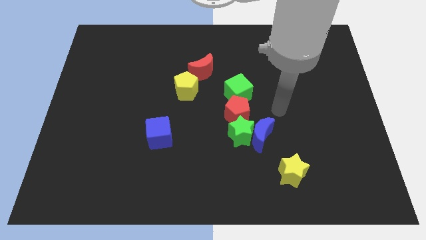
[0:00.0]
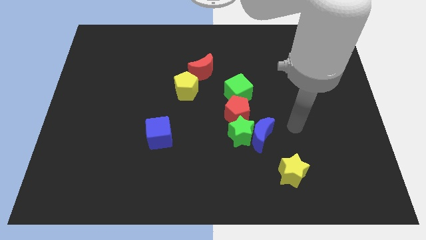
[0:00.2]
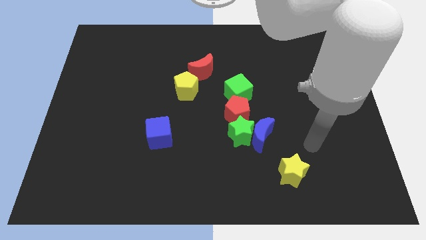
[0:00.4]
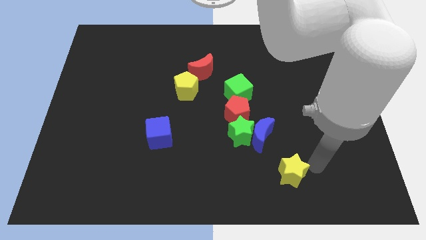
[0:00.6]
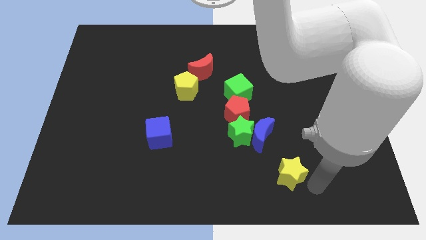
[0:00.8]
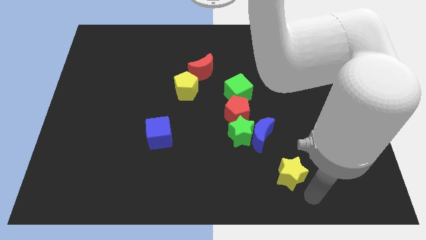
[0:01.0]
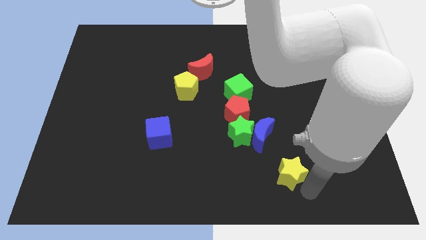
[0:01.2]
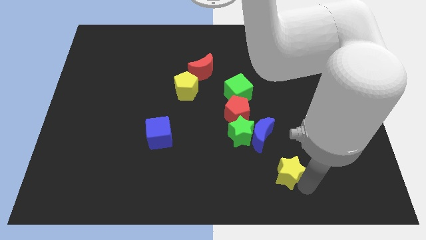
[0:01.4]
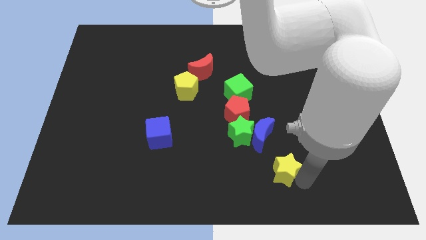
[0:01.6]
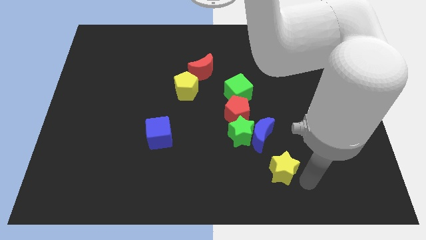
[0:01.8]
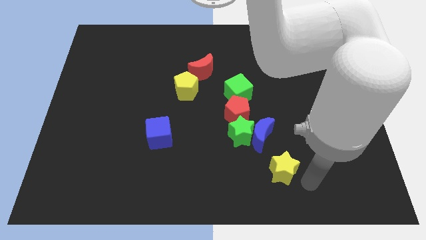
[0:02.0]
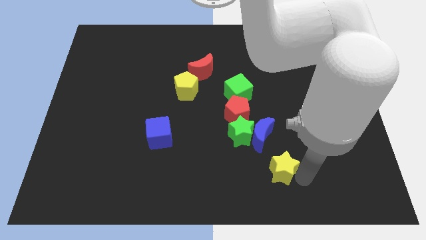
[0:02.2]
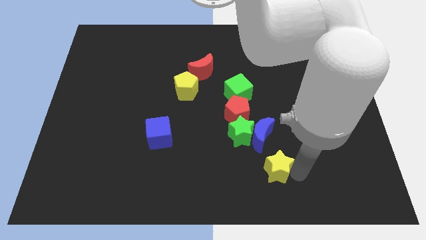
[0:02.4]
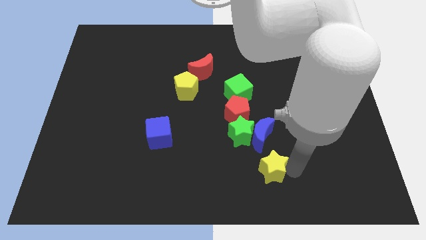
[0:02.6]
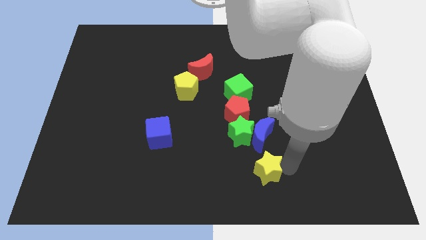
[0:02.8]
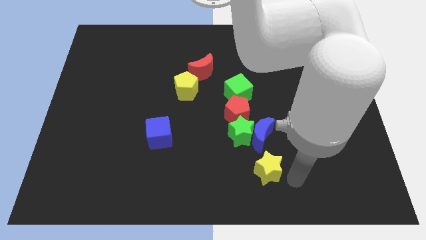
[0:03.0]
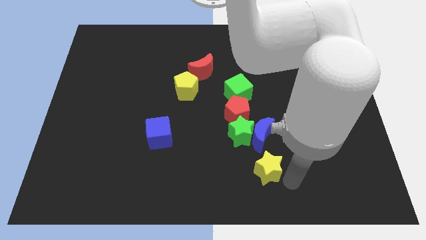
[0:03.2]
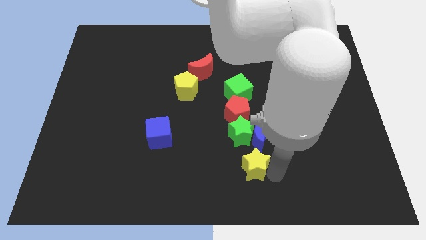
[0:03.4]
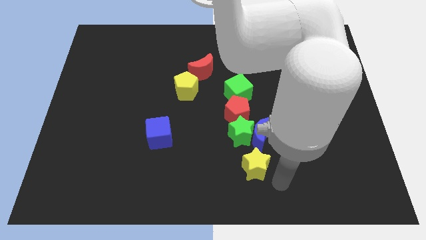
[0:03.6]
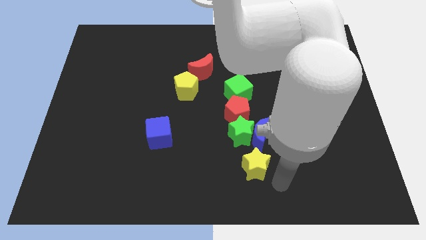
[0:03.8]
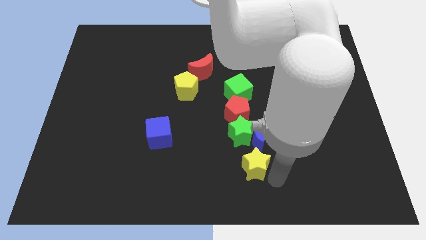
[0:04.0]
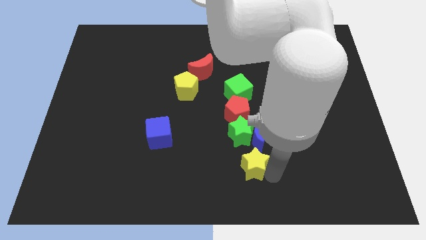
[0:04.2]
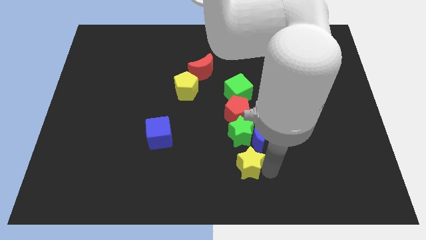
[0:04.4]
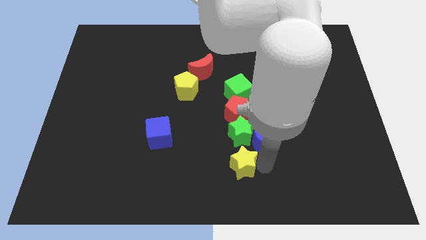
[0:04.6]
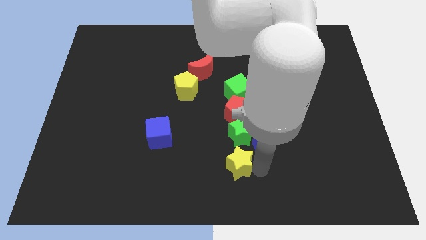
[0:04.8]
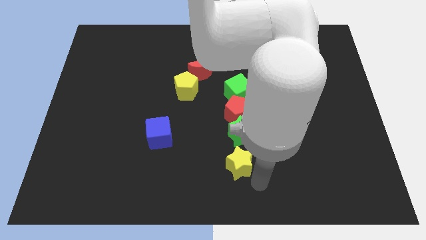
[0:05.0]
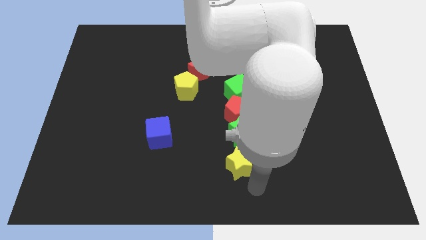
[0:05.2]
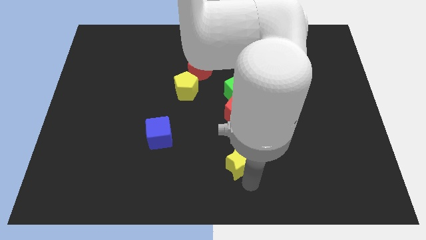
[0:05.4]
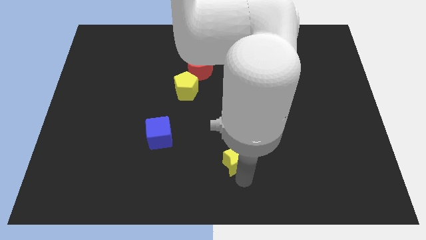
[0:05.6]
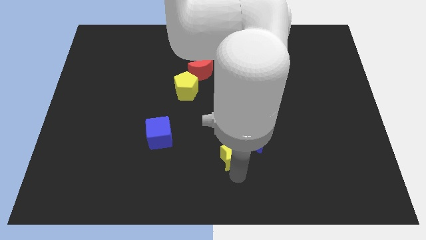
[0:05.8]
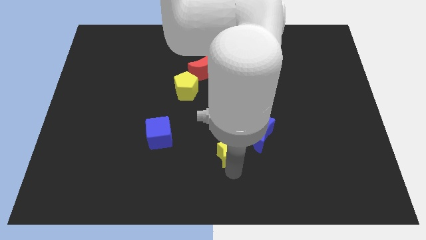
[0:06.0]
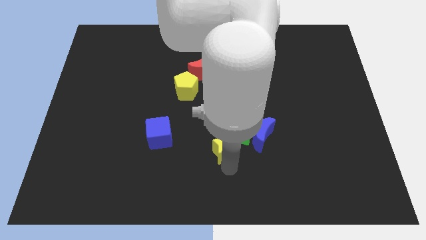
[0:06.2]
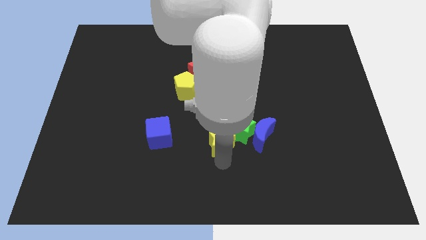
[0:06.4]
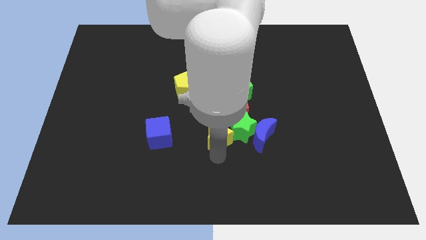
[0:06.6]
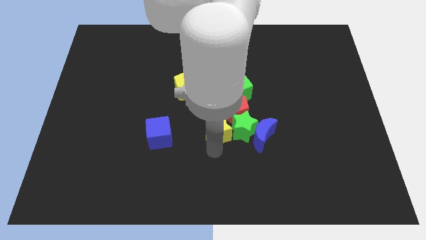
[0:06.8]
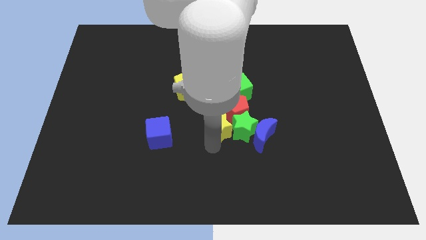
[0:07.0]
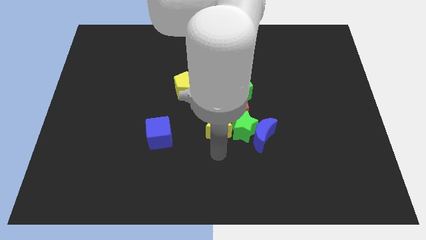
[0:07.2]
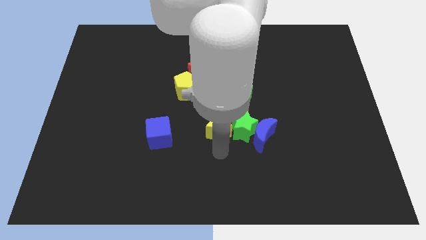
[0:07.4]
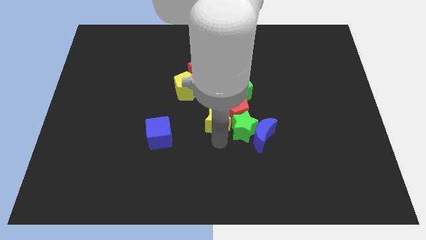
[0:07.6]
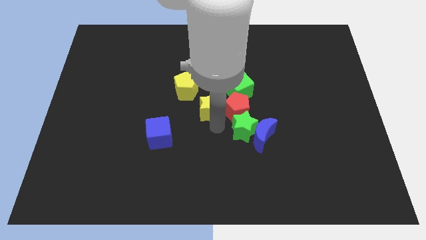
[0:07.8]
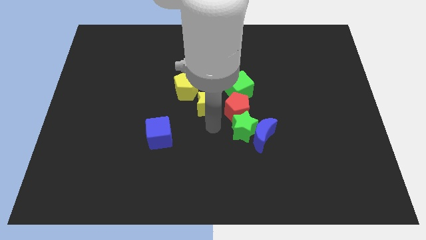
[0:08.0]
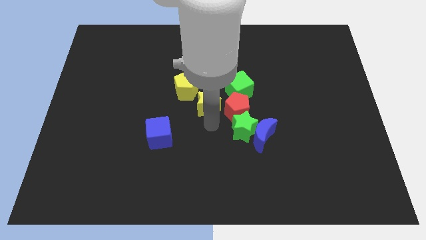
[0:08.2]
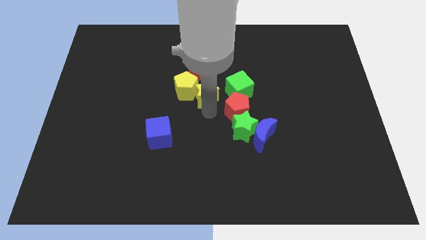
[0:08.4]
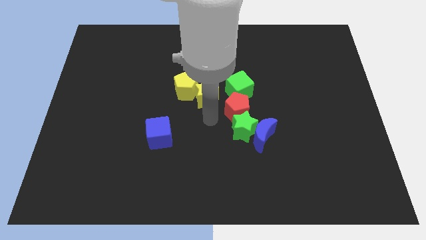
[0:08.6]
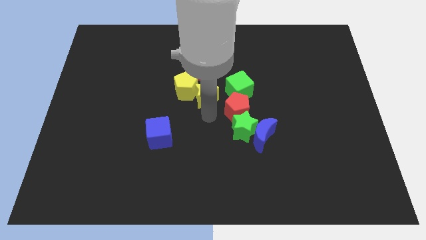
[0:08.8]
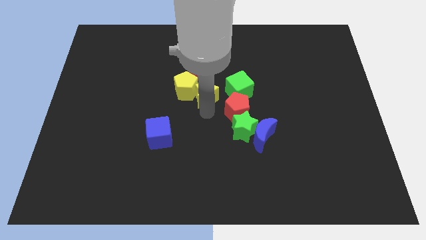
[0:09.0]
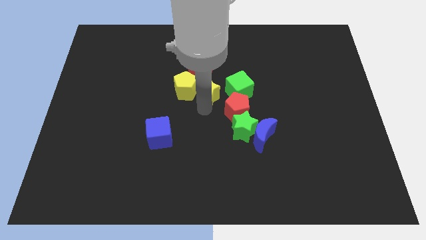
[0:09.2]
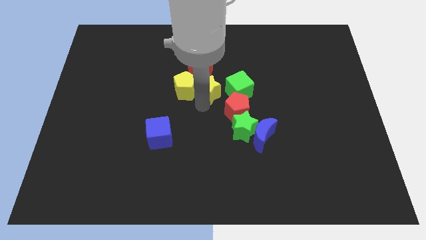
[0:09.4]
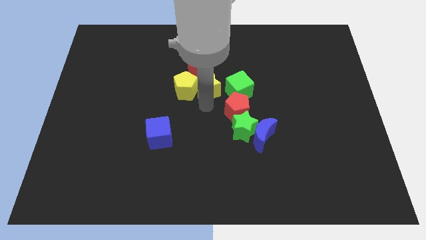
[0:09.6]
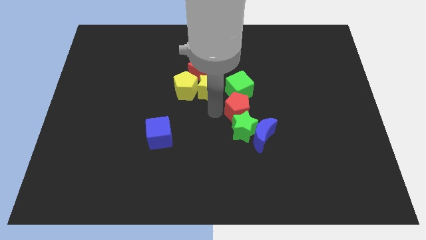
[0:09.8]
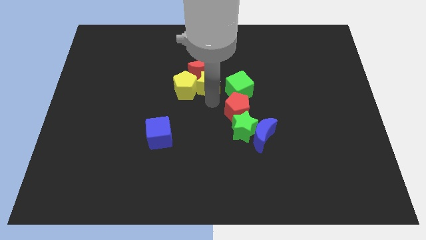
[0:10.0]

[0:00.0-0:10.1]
move the yellow star towards the red moon

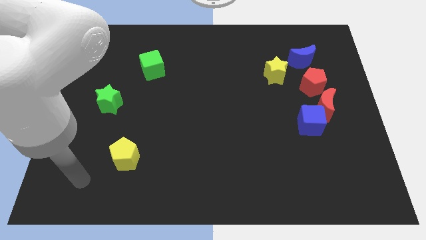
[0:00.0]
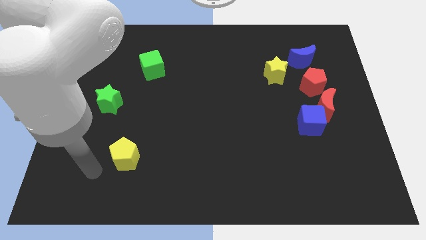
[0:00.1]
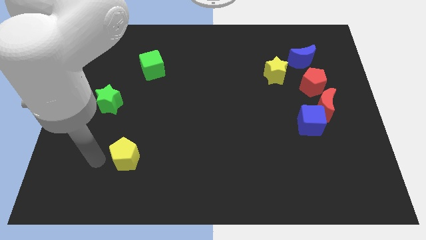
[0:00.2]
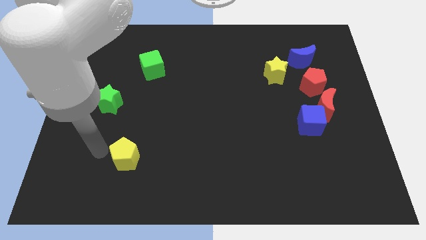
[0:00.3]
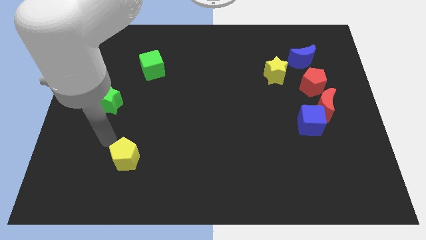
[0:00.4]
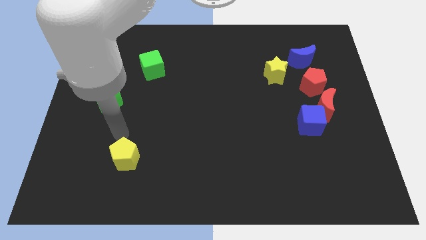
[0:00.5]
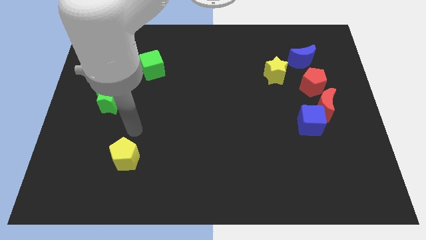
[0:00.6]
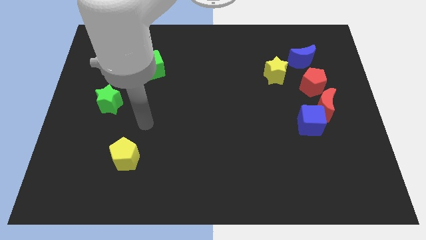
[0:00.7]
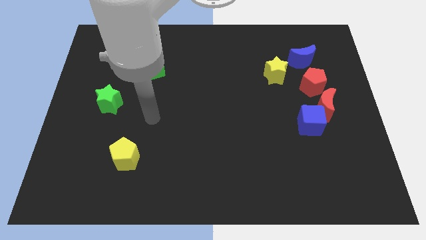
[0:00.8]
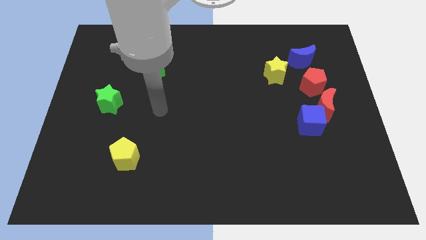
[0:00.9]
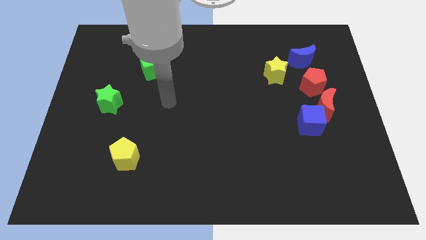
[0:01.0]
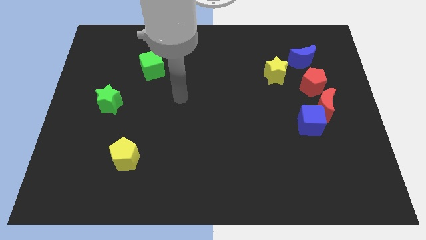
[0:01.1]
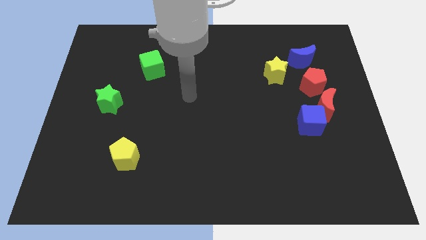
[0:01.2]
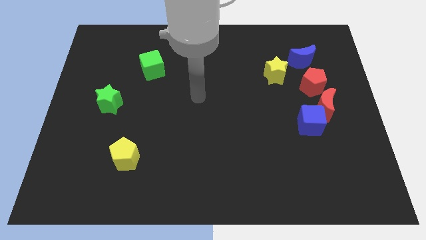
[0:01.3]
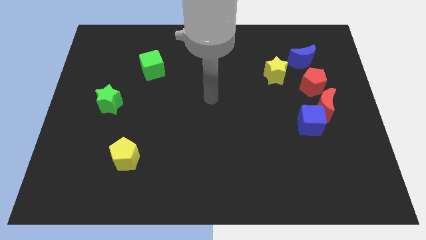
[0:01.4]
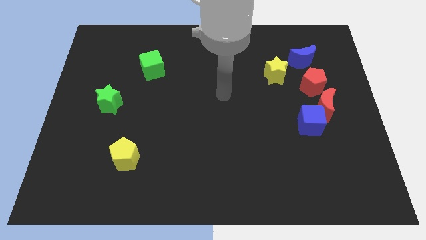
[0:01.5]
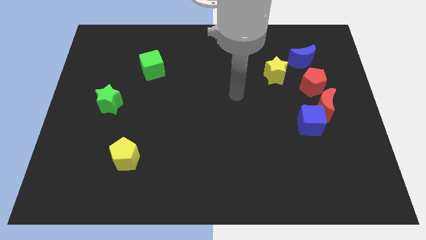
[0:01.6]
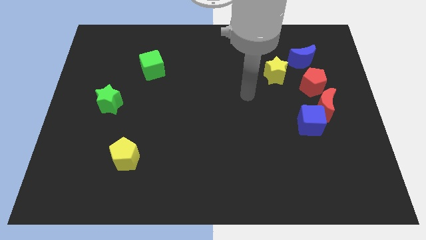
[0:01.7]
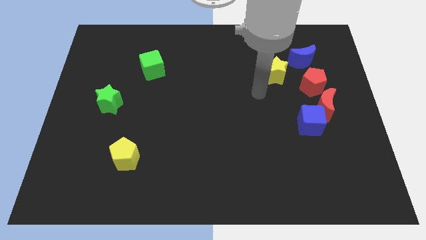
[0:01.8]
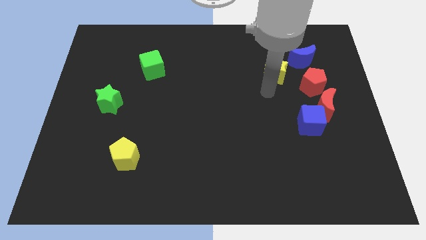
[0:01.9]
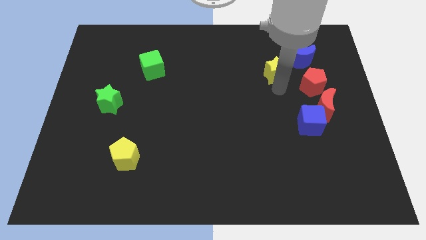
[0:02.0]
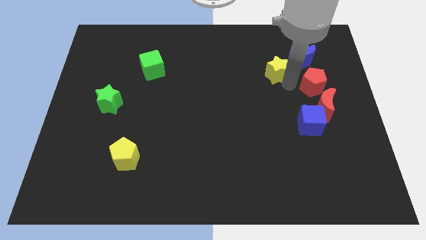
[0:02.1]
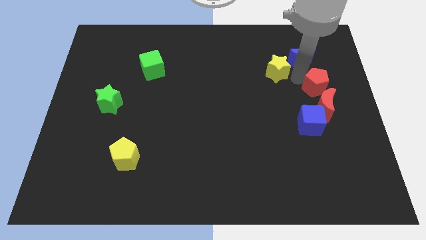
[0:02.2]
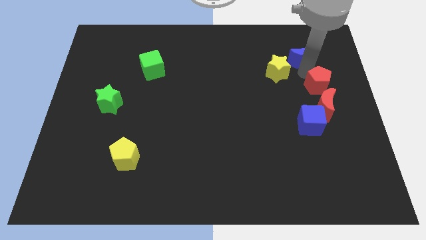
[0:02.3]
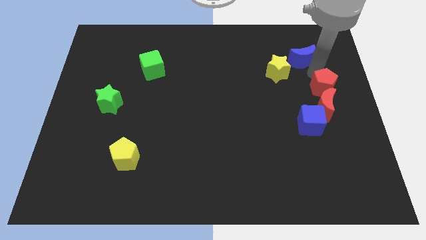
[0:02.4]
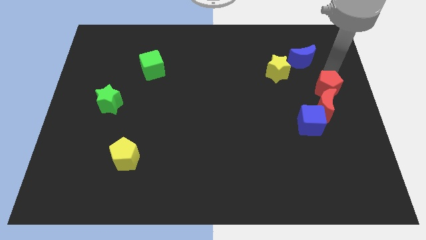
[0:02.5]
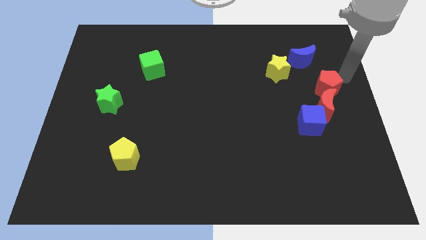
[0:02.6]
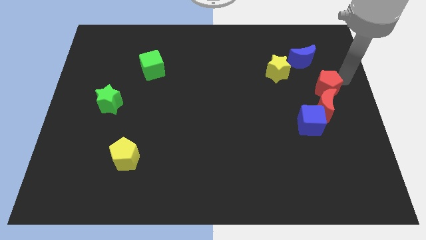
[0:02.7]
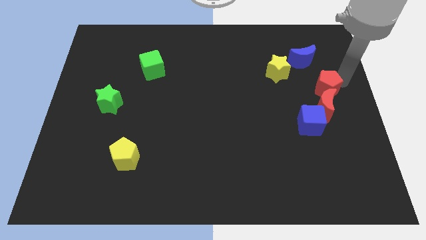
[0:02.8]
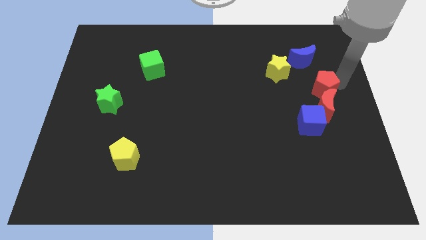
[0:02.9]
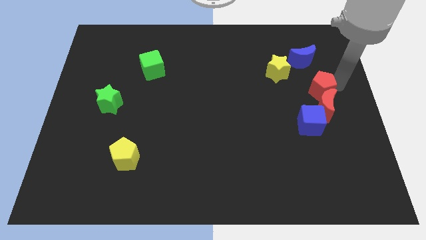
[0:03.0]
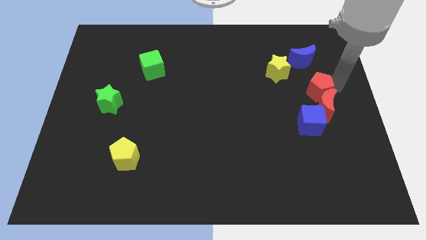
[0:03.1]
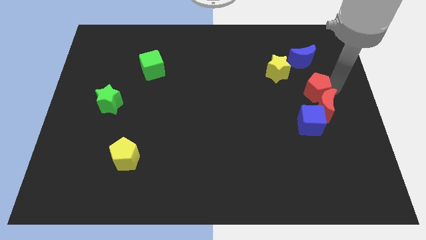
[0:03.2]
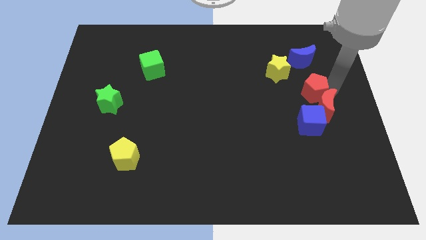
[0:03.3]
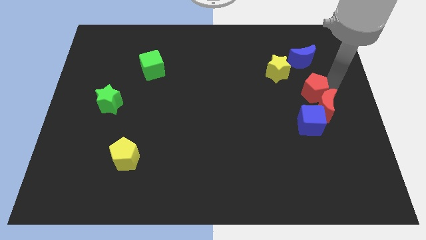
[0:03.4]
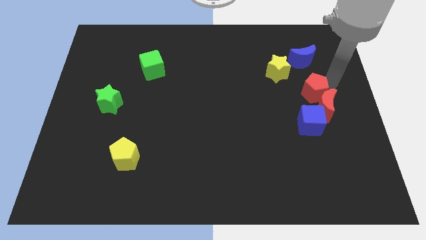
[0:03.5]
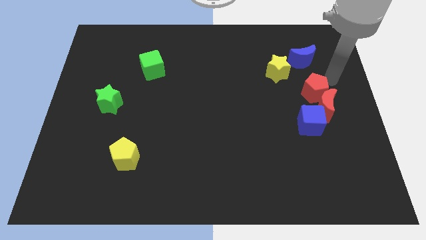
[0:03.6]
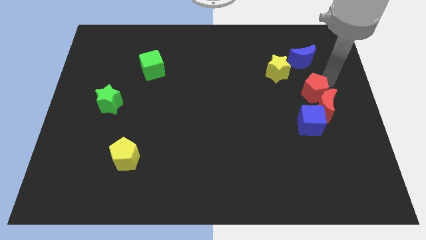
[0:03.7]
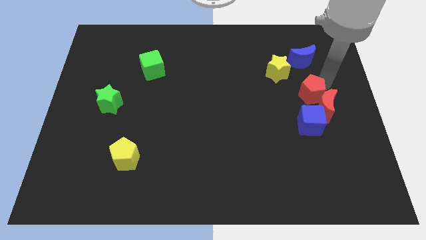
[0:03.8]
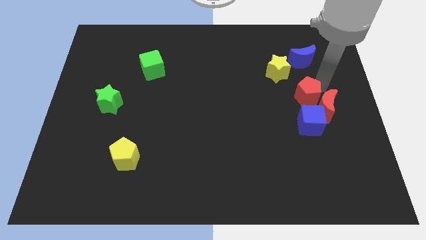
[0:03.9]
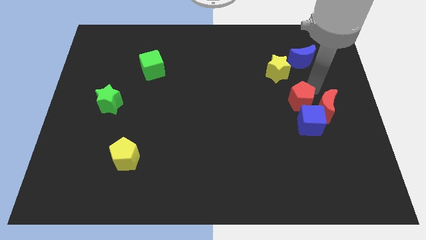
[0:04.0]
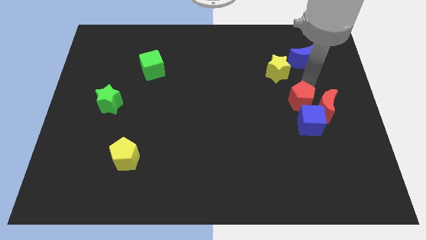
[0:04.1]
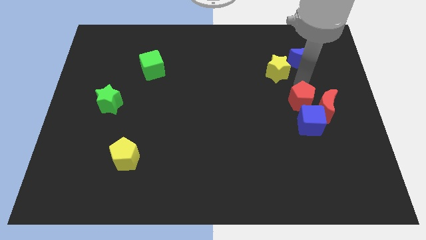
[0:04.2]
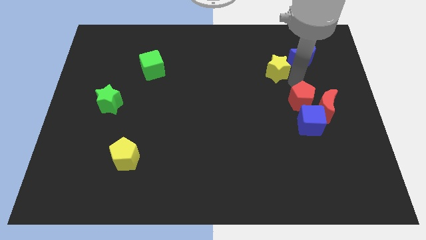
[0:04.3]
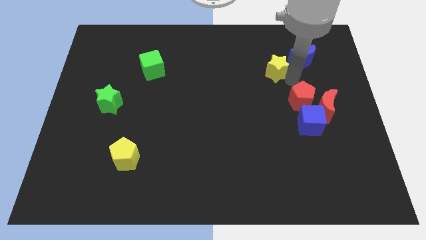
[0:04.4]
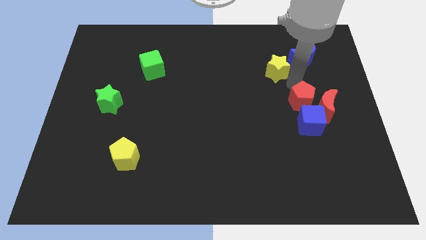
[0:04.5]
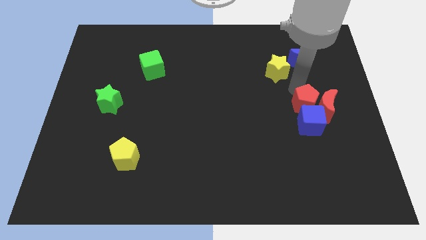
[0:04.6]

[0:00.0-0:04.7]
push the red pentagon to the blue cube
